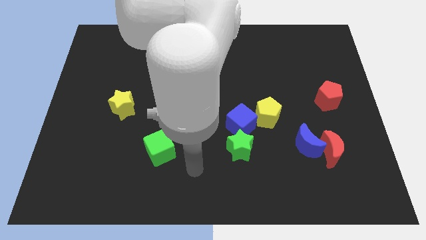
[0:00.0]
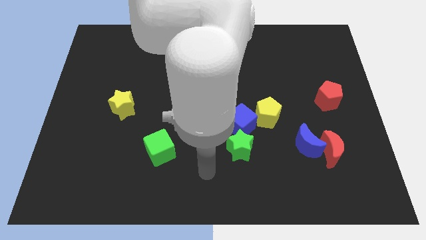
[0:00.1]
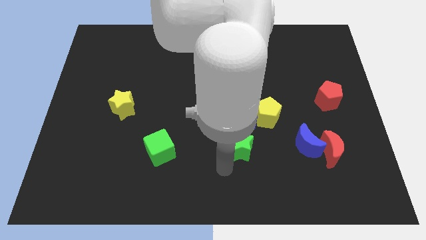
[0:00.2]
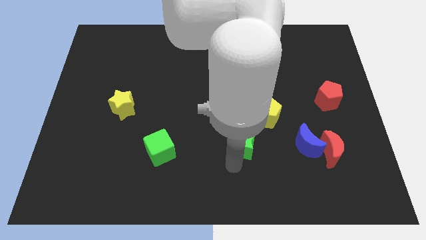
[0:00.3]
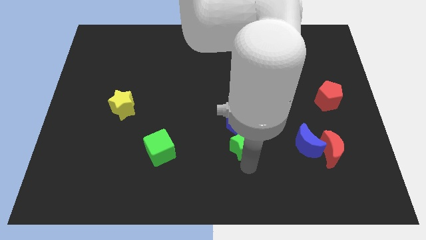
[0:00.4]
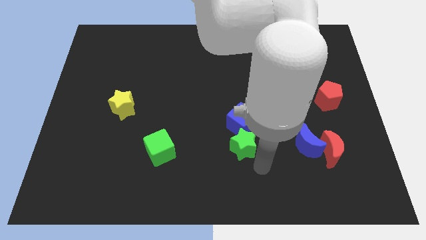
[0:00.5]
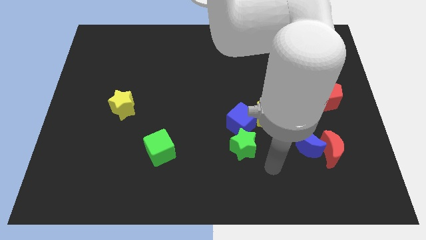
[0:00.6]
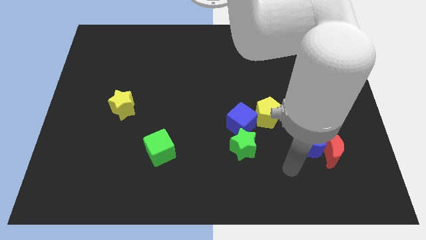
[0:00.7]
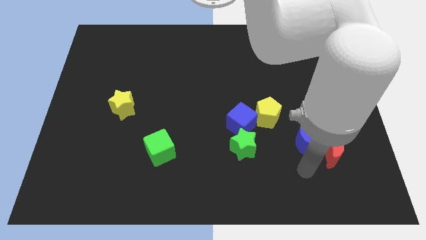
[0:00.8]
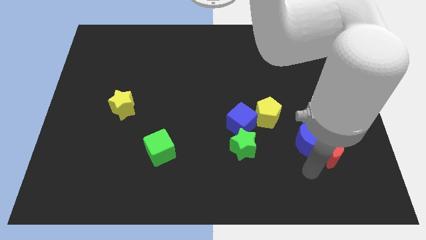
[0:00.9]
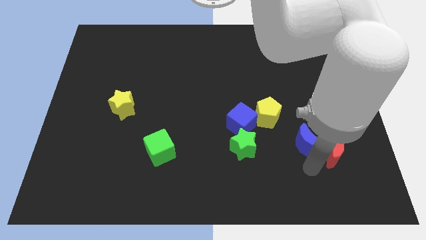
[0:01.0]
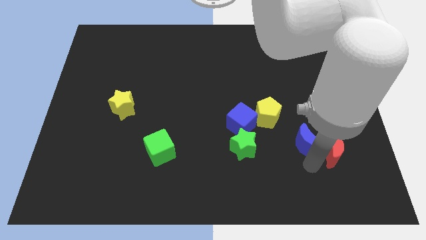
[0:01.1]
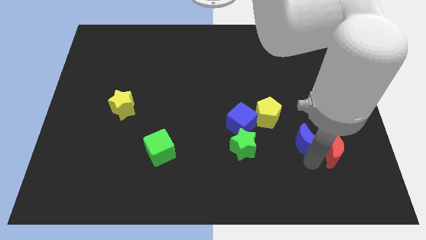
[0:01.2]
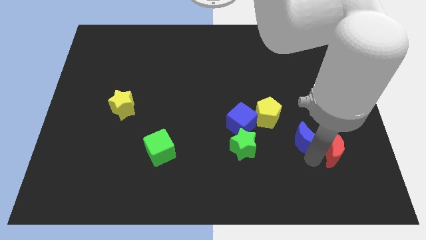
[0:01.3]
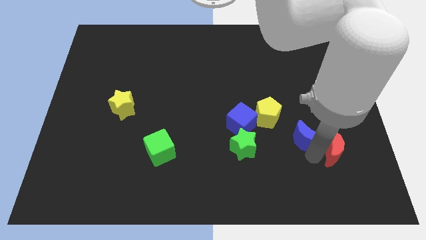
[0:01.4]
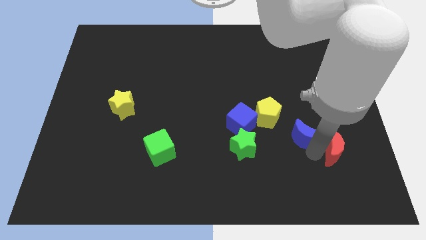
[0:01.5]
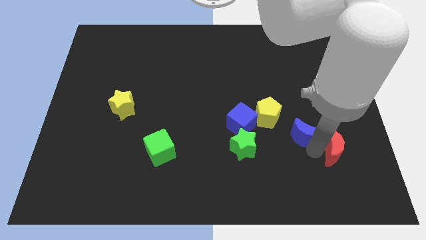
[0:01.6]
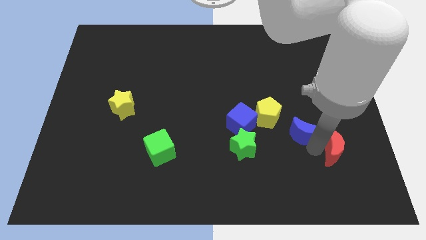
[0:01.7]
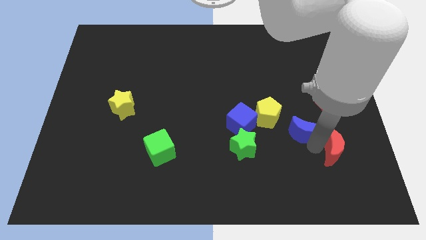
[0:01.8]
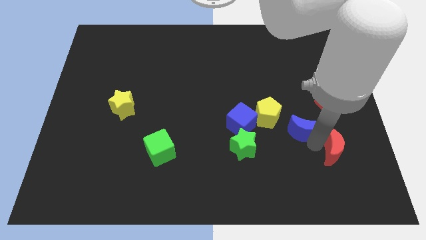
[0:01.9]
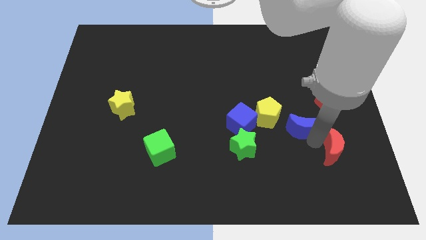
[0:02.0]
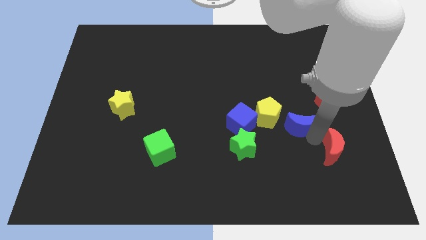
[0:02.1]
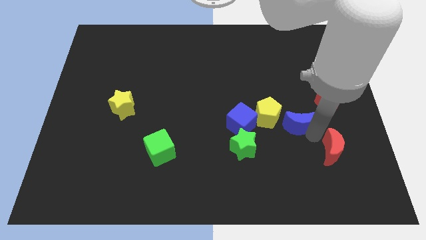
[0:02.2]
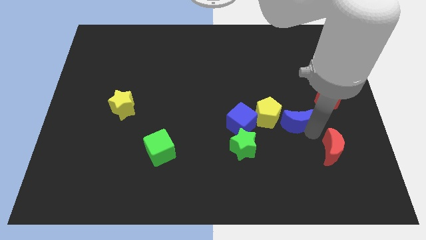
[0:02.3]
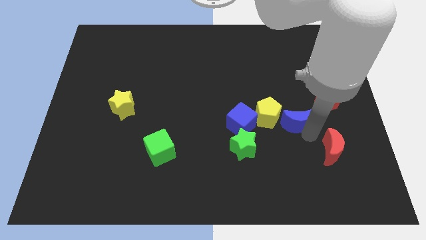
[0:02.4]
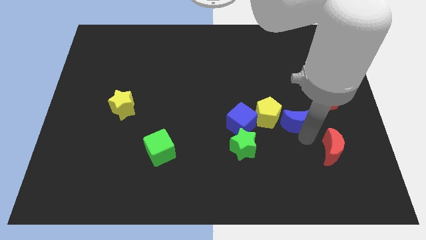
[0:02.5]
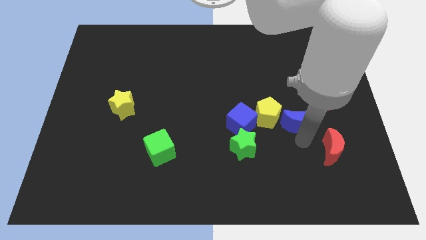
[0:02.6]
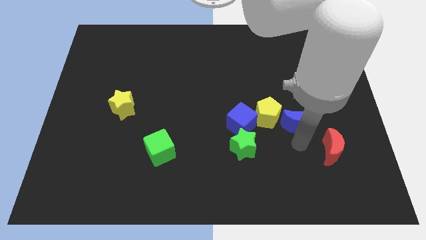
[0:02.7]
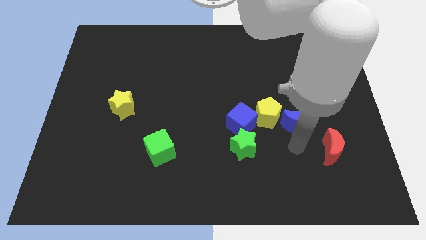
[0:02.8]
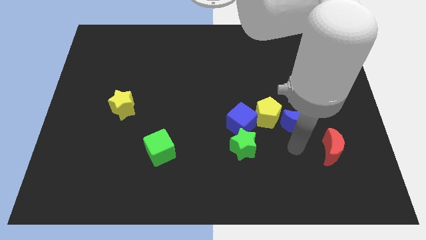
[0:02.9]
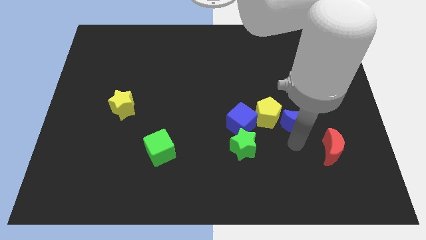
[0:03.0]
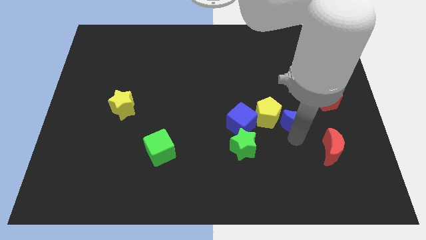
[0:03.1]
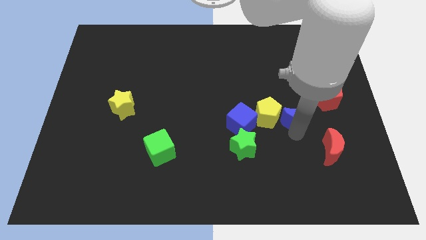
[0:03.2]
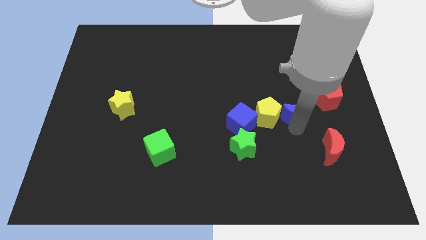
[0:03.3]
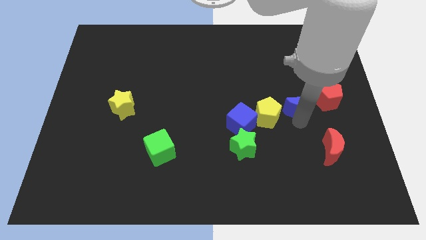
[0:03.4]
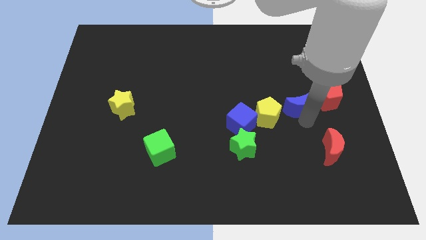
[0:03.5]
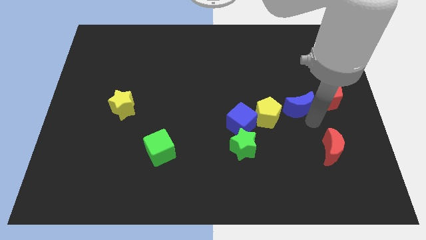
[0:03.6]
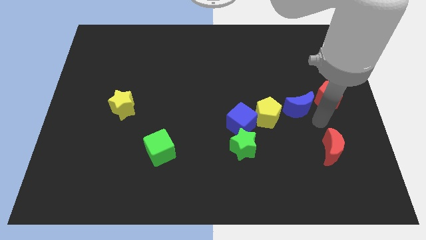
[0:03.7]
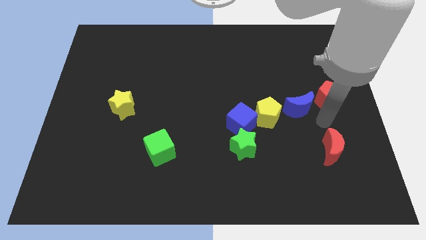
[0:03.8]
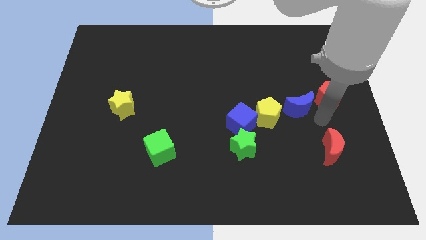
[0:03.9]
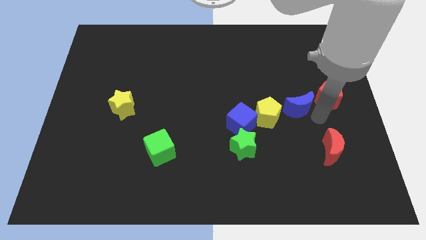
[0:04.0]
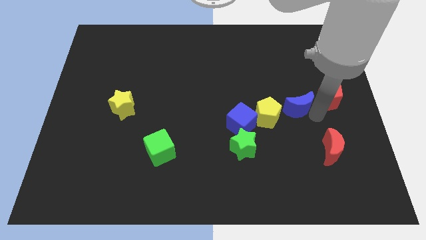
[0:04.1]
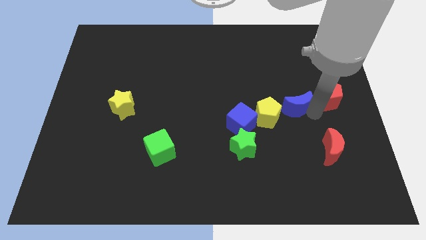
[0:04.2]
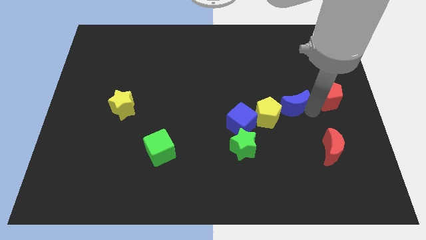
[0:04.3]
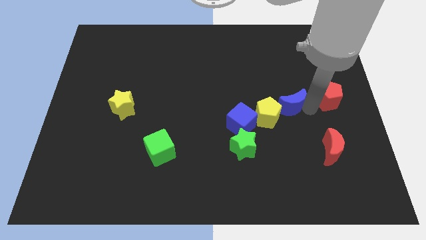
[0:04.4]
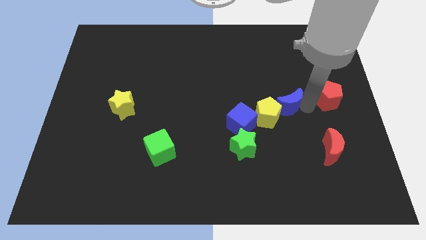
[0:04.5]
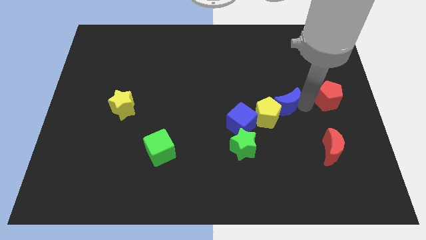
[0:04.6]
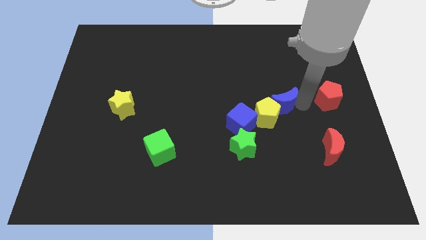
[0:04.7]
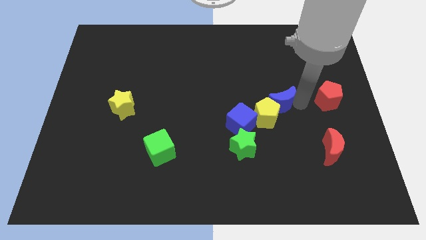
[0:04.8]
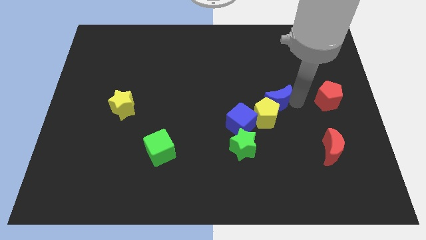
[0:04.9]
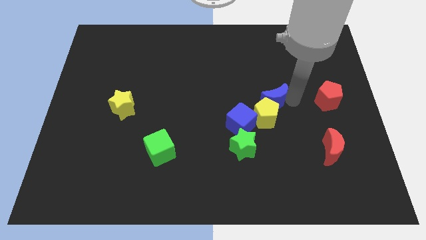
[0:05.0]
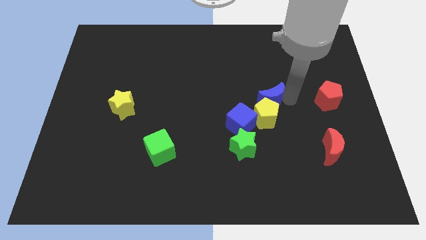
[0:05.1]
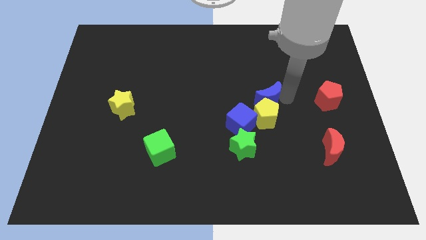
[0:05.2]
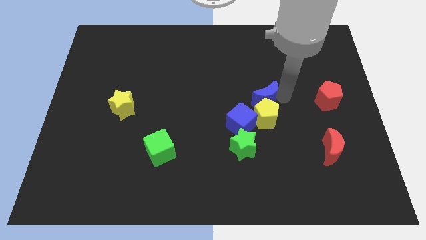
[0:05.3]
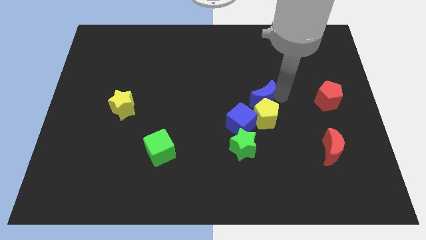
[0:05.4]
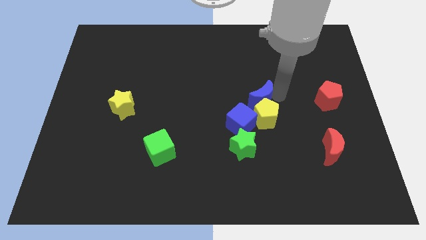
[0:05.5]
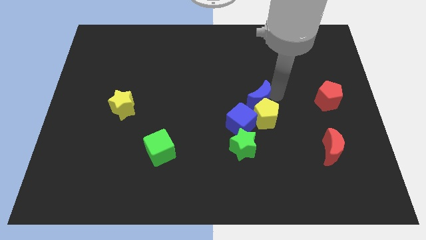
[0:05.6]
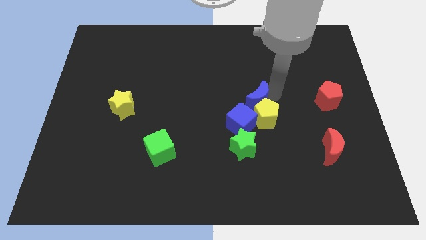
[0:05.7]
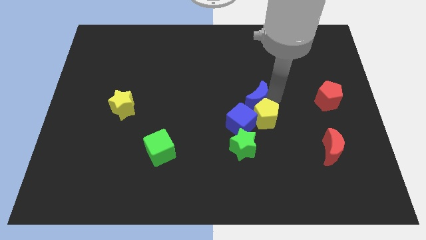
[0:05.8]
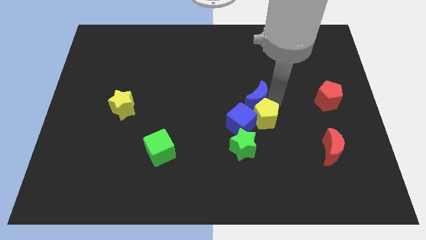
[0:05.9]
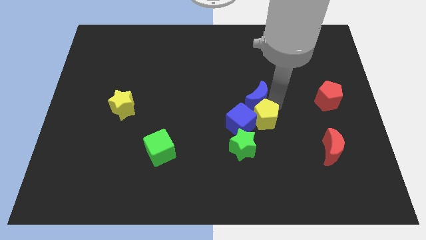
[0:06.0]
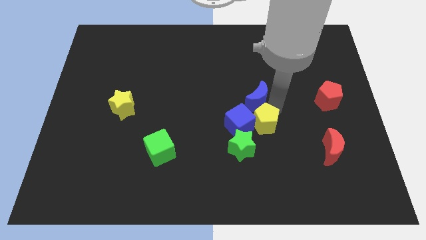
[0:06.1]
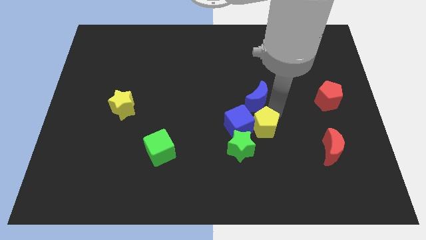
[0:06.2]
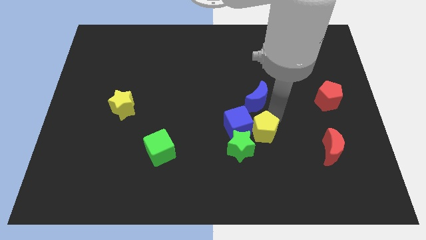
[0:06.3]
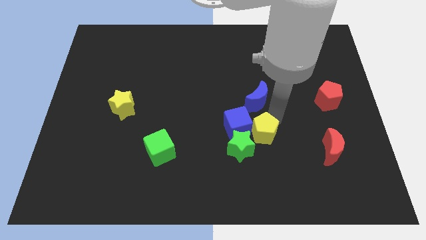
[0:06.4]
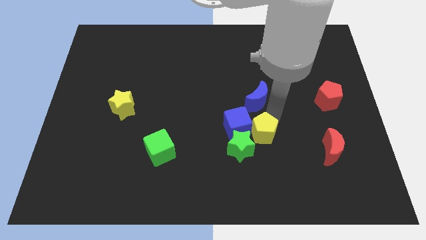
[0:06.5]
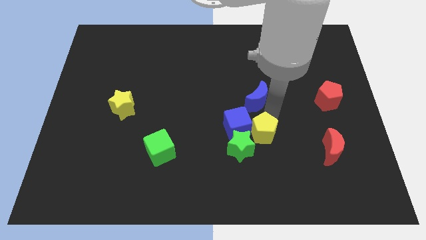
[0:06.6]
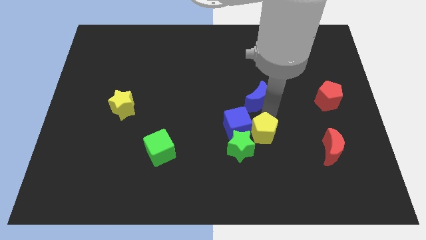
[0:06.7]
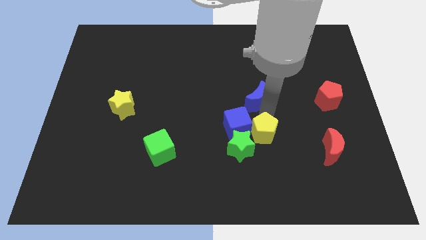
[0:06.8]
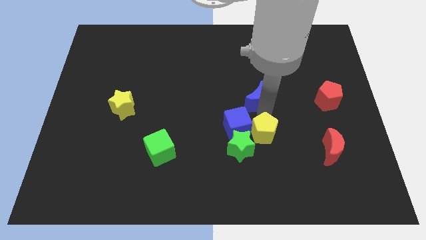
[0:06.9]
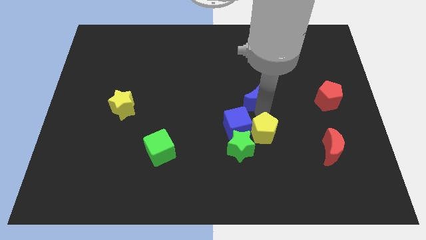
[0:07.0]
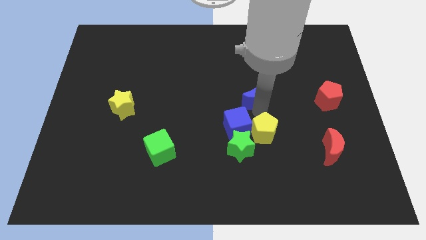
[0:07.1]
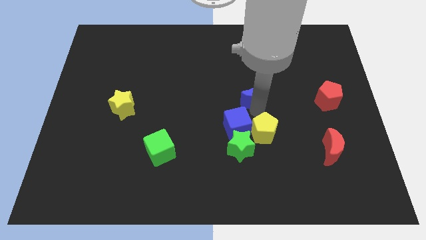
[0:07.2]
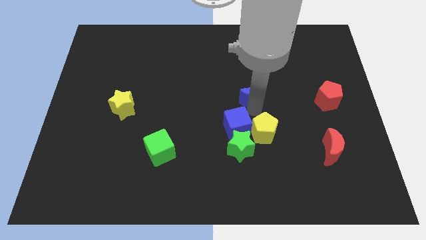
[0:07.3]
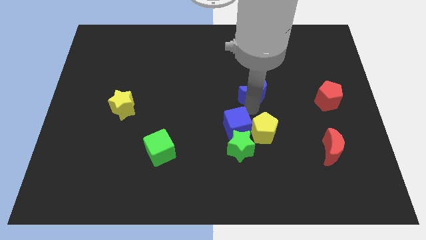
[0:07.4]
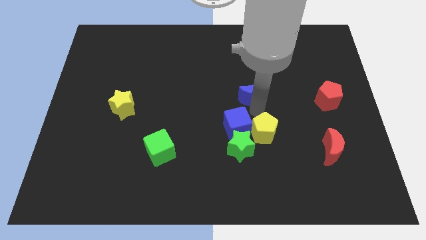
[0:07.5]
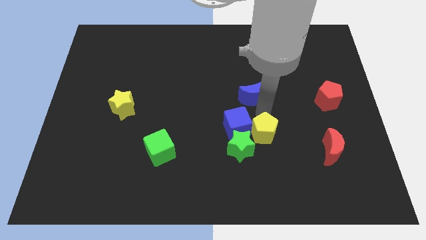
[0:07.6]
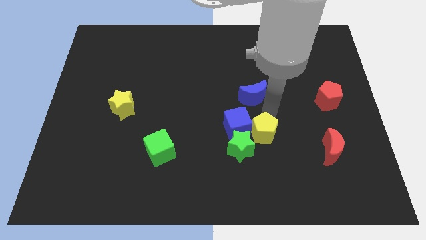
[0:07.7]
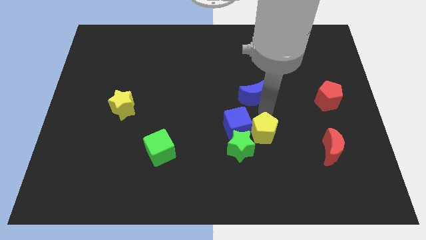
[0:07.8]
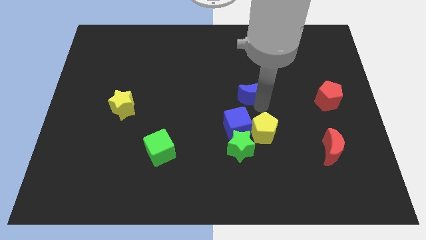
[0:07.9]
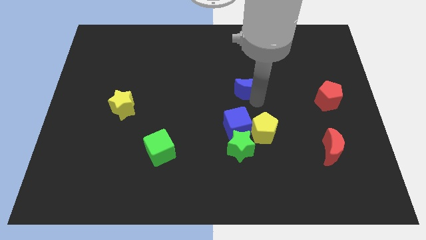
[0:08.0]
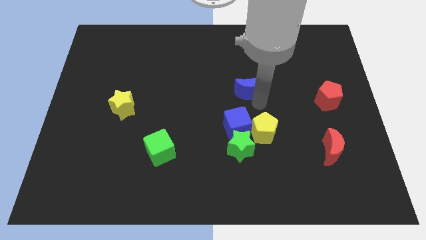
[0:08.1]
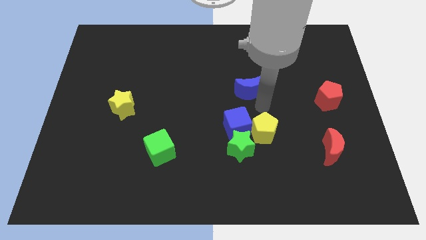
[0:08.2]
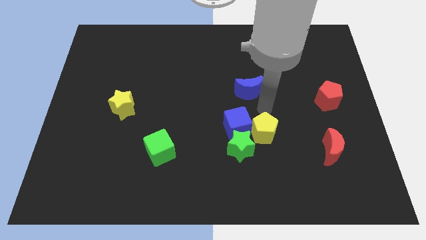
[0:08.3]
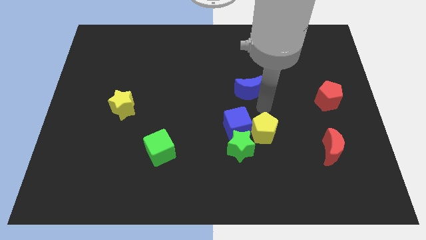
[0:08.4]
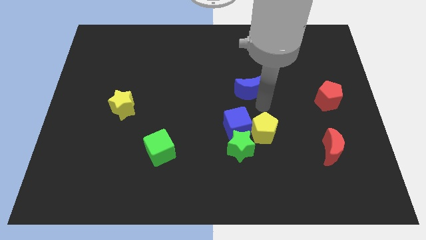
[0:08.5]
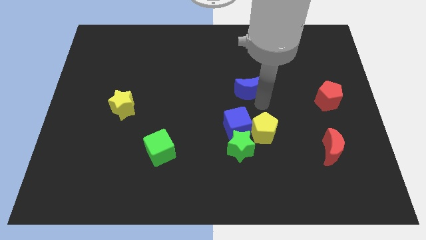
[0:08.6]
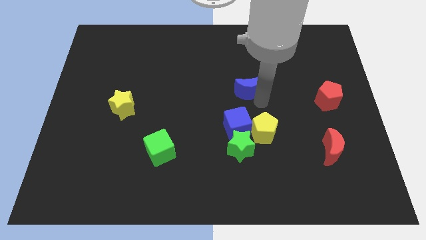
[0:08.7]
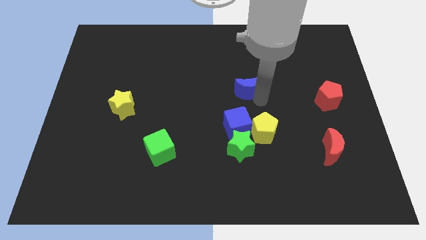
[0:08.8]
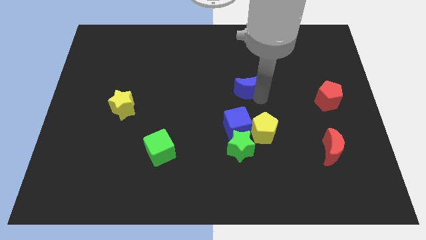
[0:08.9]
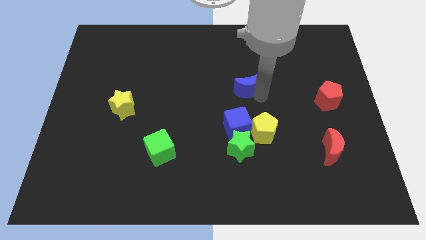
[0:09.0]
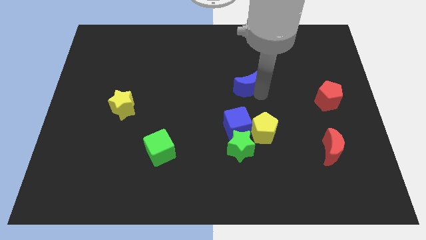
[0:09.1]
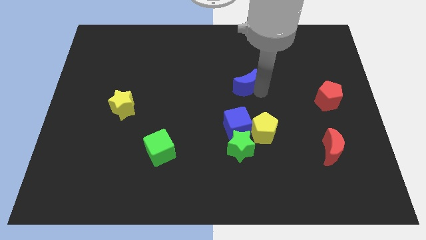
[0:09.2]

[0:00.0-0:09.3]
move the blue moon upwards and to the left
